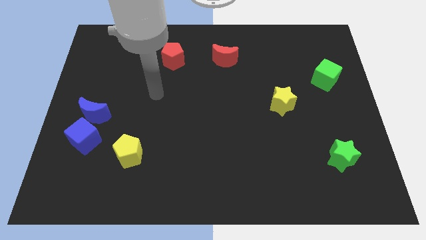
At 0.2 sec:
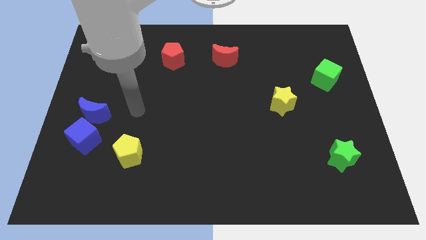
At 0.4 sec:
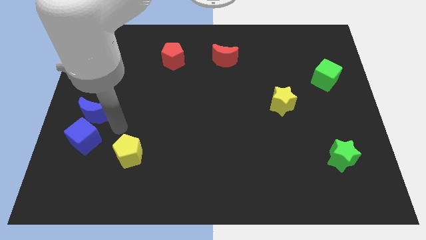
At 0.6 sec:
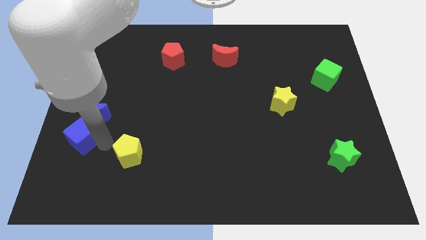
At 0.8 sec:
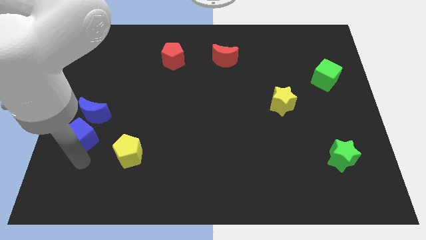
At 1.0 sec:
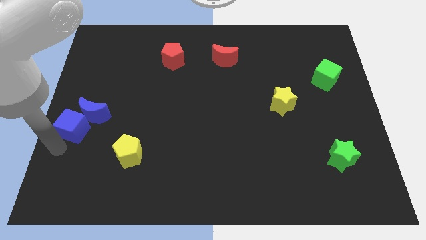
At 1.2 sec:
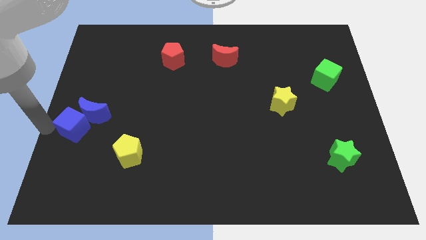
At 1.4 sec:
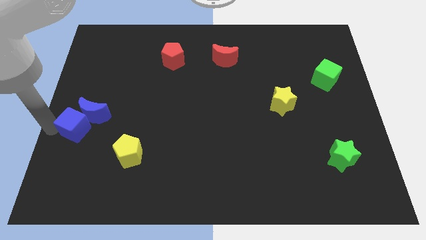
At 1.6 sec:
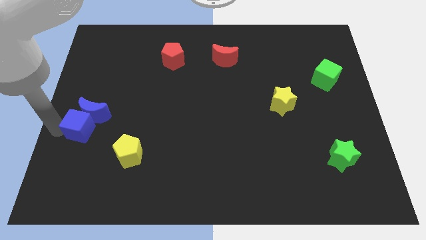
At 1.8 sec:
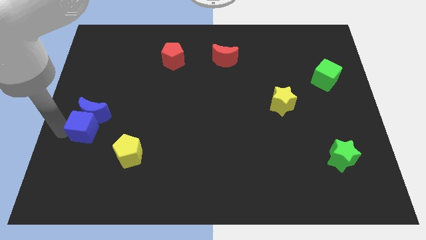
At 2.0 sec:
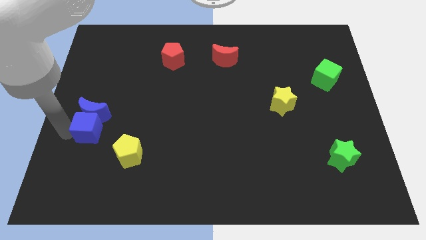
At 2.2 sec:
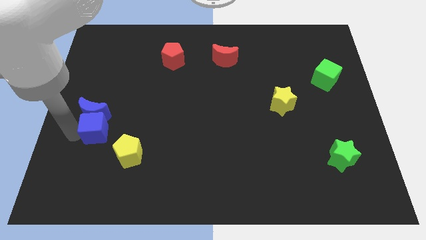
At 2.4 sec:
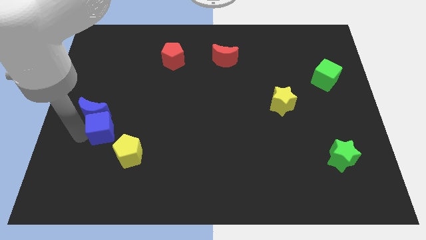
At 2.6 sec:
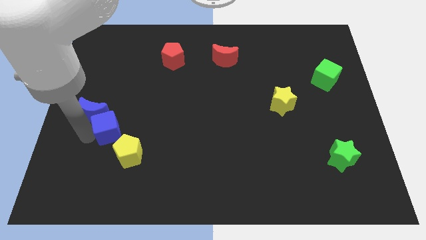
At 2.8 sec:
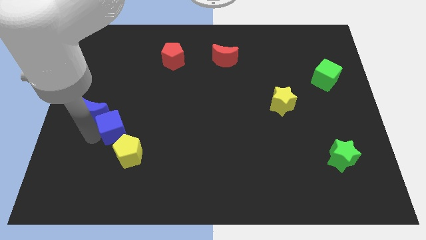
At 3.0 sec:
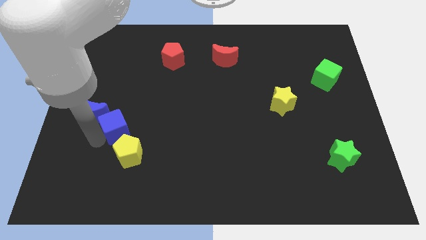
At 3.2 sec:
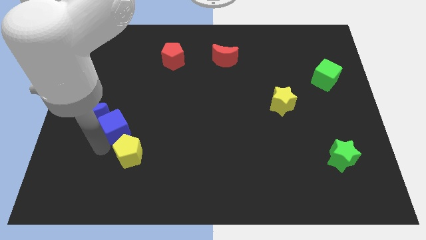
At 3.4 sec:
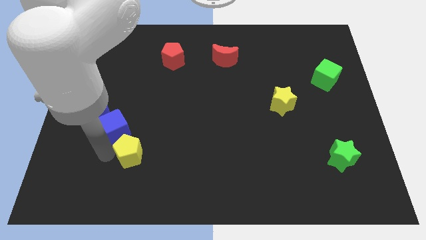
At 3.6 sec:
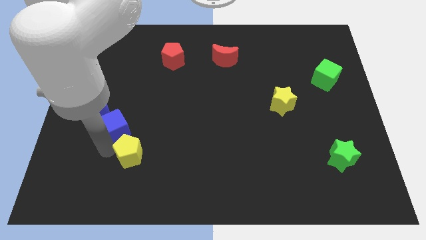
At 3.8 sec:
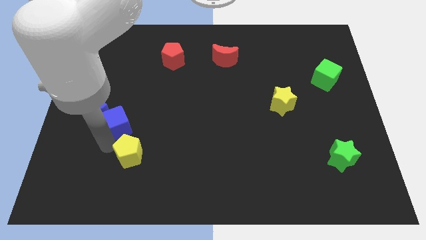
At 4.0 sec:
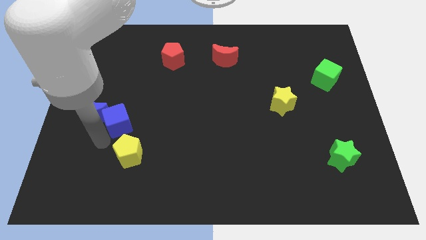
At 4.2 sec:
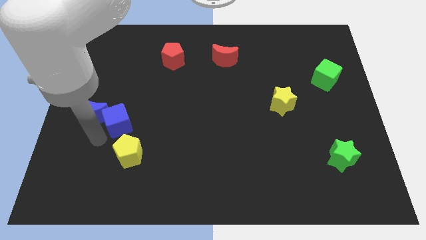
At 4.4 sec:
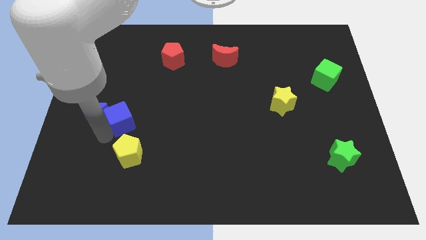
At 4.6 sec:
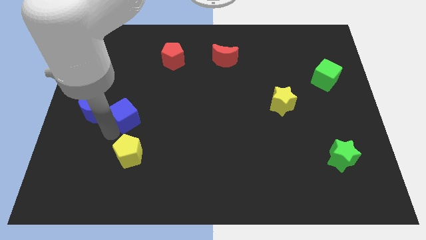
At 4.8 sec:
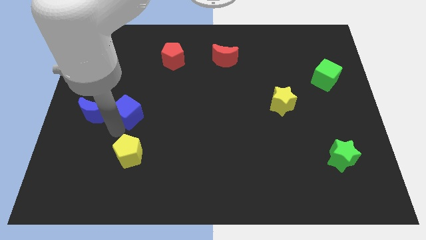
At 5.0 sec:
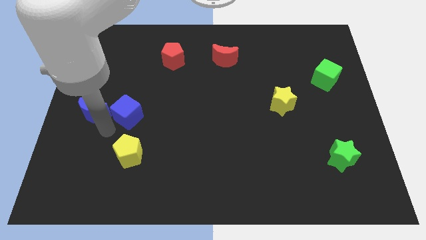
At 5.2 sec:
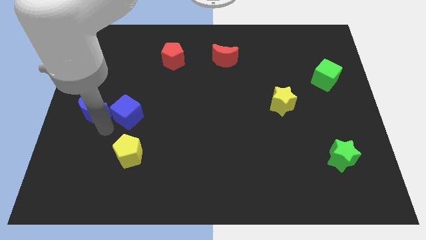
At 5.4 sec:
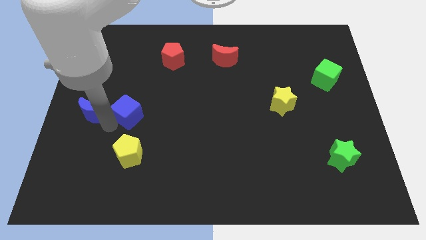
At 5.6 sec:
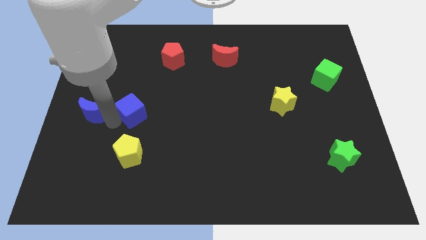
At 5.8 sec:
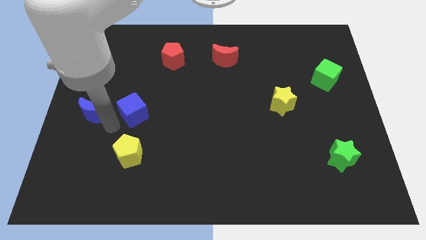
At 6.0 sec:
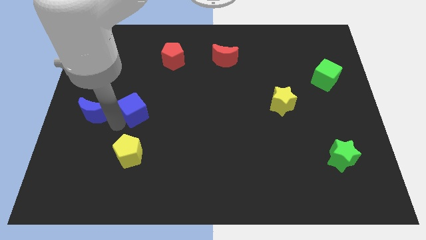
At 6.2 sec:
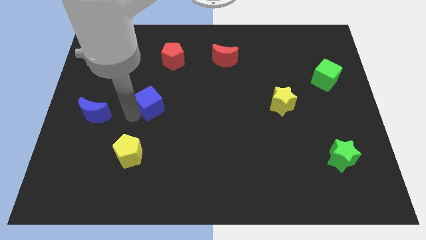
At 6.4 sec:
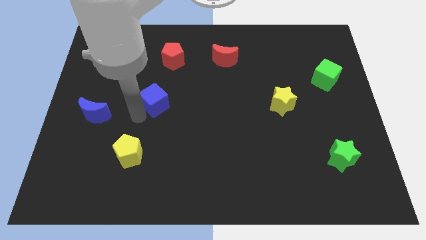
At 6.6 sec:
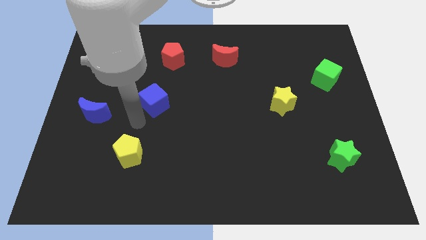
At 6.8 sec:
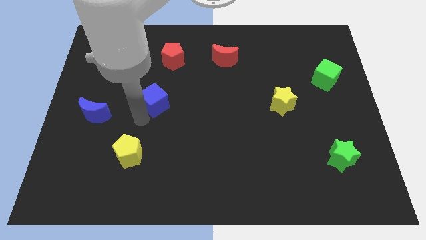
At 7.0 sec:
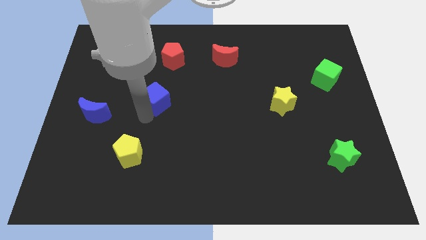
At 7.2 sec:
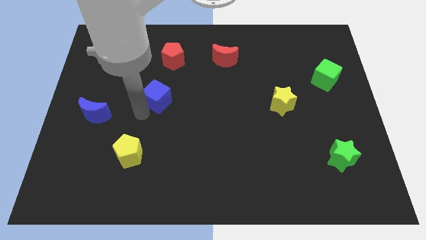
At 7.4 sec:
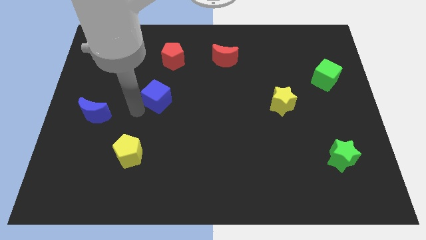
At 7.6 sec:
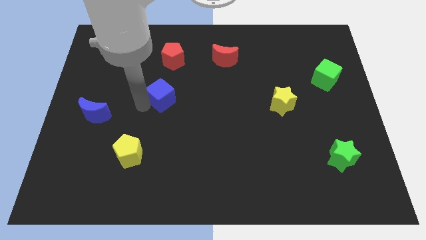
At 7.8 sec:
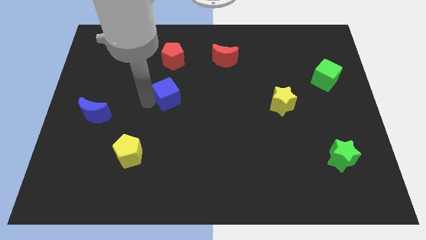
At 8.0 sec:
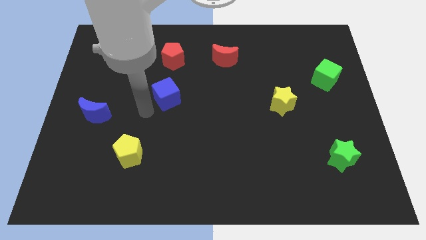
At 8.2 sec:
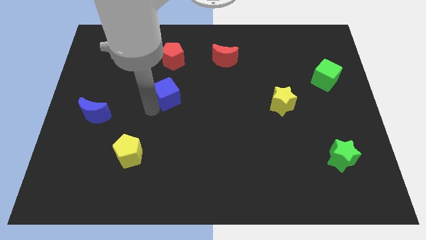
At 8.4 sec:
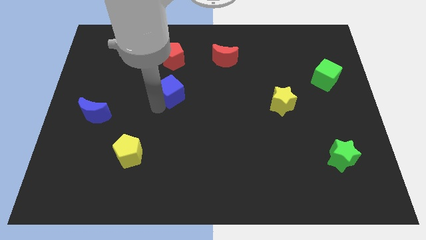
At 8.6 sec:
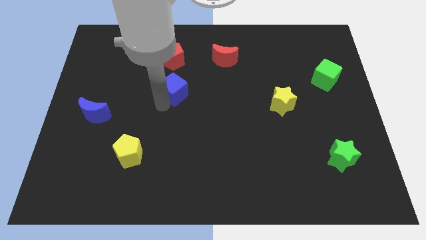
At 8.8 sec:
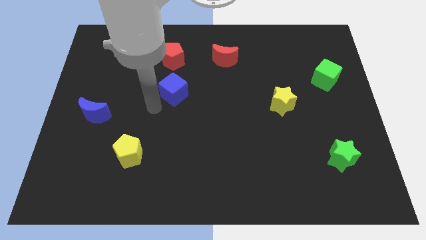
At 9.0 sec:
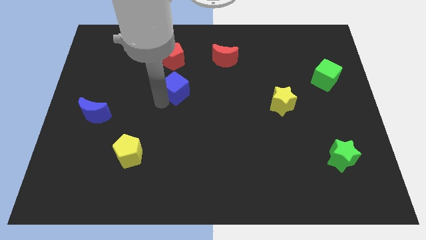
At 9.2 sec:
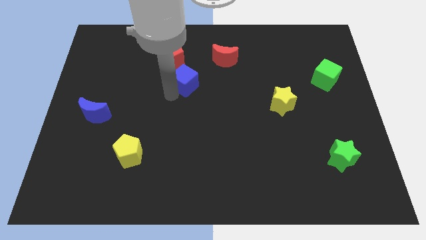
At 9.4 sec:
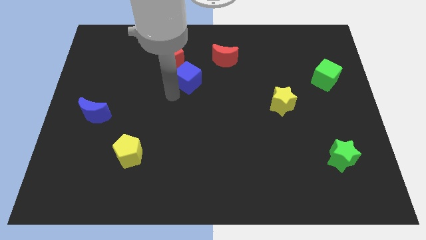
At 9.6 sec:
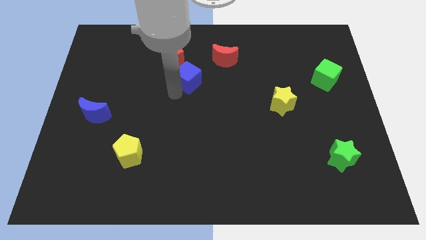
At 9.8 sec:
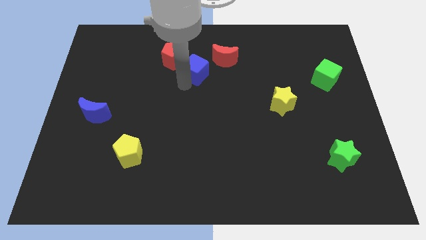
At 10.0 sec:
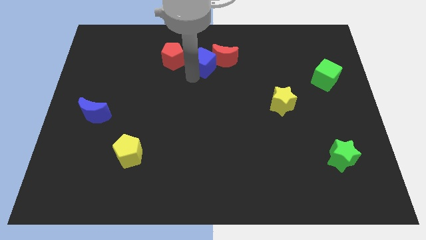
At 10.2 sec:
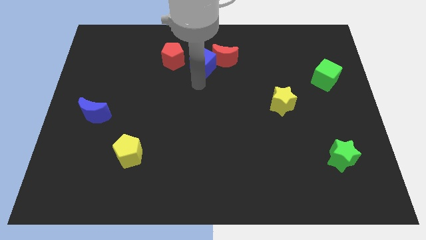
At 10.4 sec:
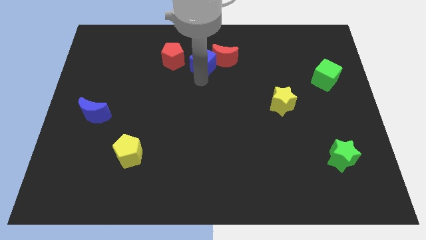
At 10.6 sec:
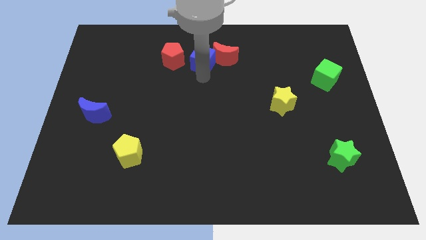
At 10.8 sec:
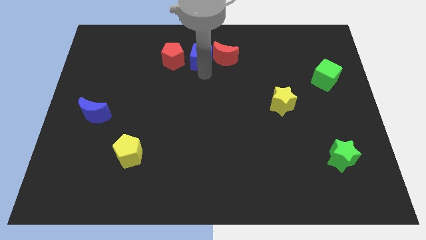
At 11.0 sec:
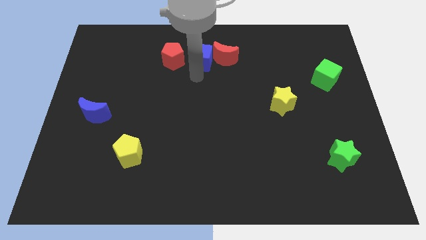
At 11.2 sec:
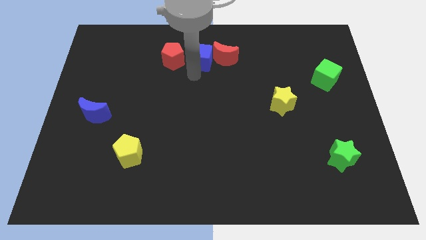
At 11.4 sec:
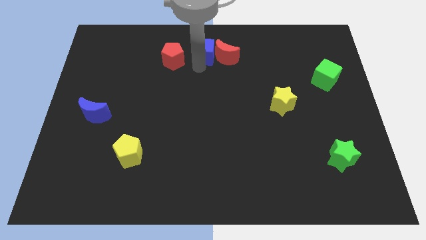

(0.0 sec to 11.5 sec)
put the blue cube to the top

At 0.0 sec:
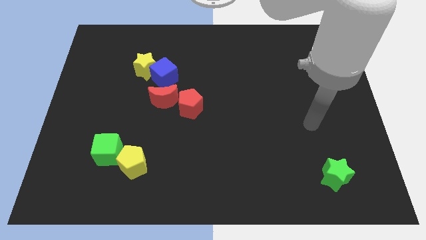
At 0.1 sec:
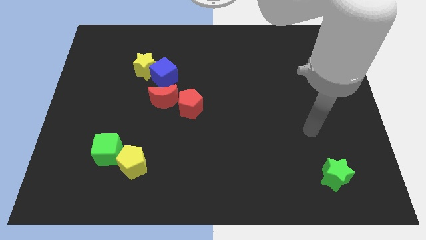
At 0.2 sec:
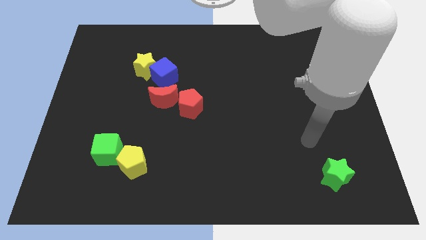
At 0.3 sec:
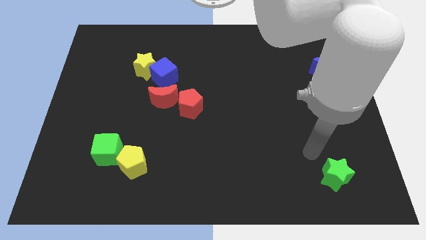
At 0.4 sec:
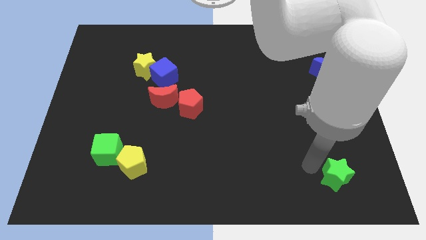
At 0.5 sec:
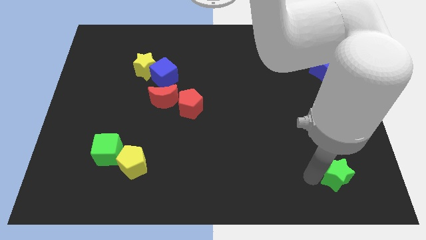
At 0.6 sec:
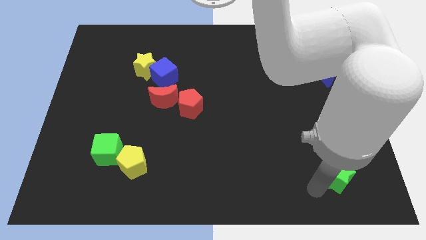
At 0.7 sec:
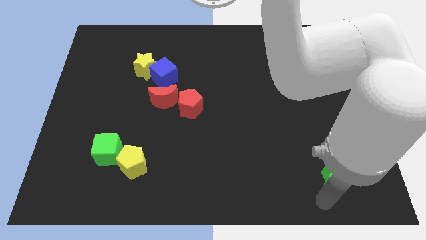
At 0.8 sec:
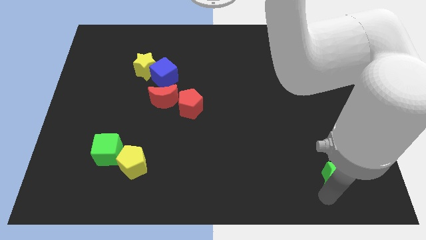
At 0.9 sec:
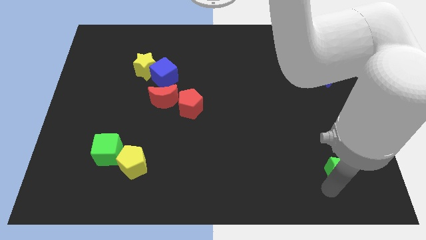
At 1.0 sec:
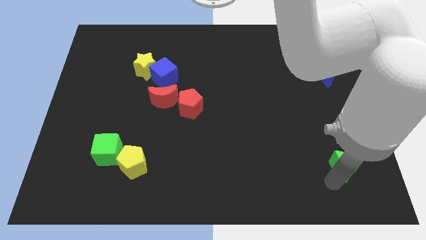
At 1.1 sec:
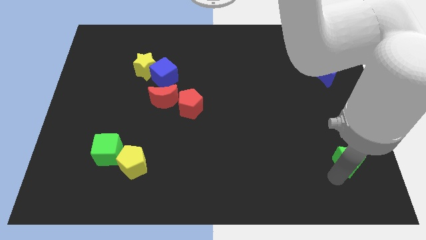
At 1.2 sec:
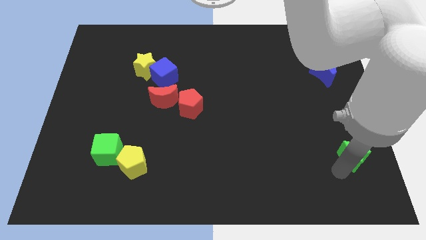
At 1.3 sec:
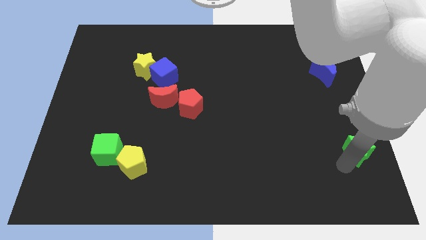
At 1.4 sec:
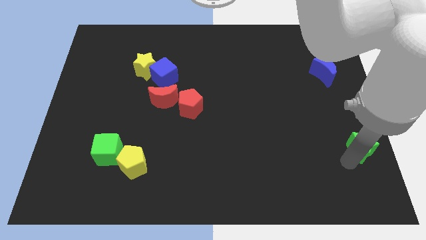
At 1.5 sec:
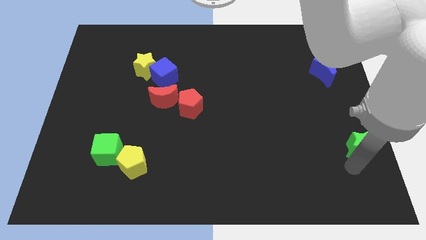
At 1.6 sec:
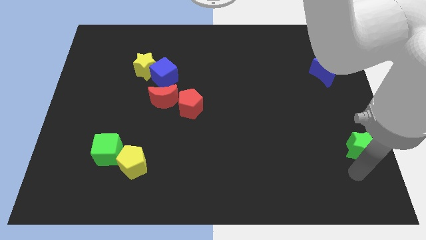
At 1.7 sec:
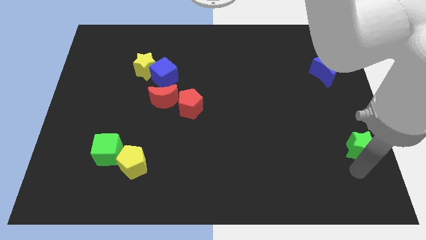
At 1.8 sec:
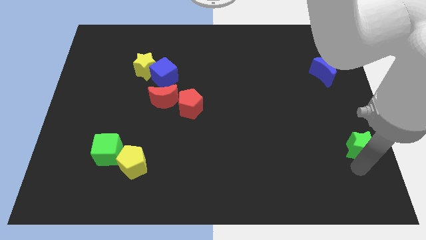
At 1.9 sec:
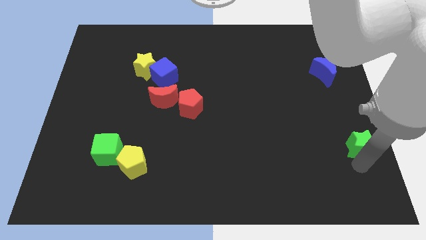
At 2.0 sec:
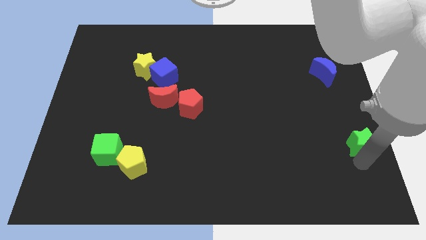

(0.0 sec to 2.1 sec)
put the green star to the right side of the board
